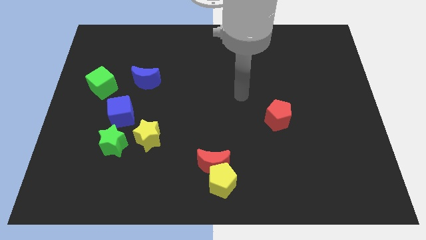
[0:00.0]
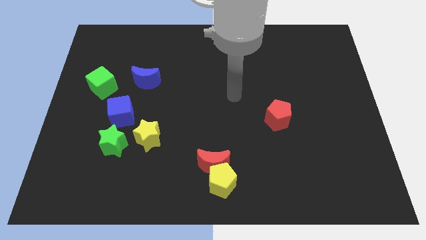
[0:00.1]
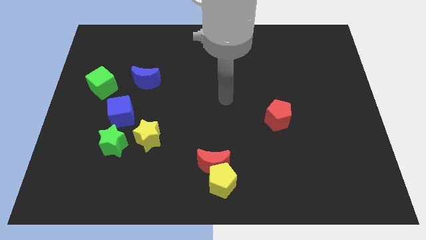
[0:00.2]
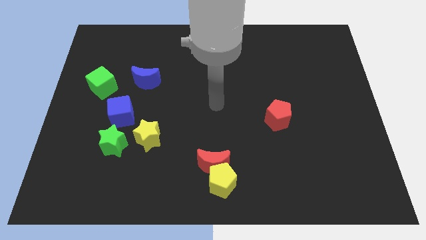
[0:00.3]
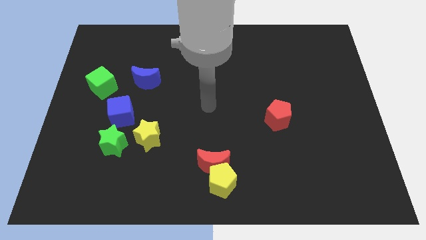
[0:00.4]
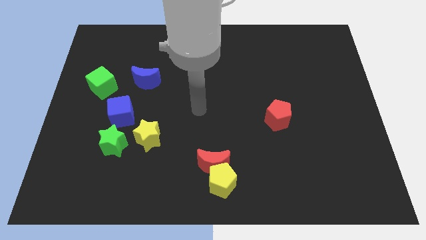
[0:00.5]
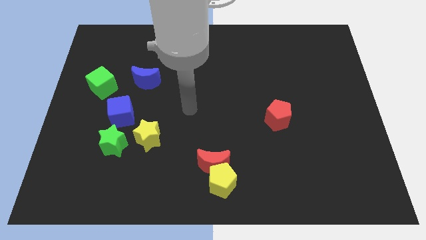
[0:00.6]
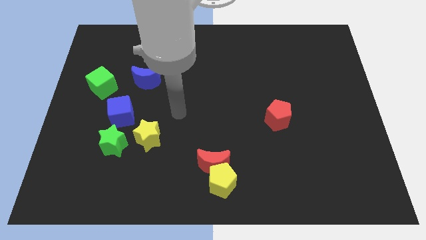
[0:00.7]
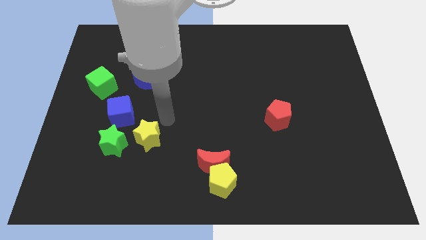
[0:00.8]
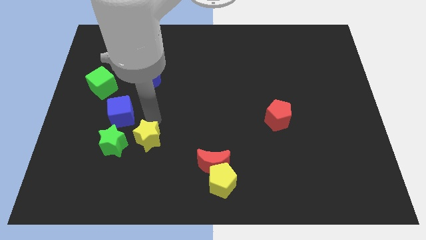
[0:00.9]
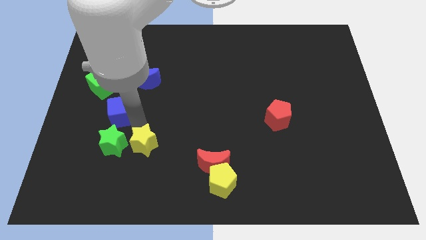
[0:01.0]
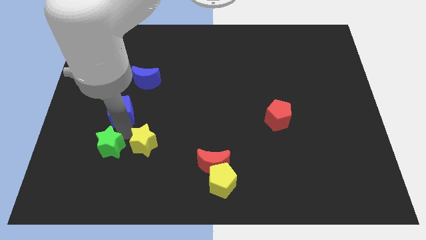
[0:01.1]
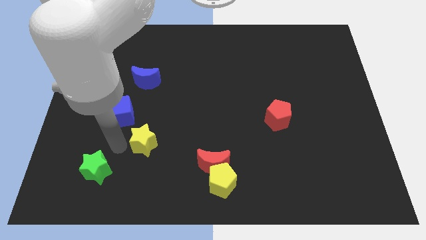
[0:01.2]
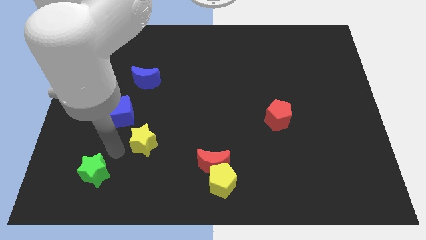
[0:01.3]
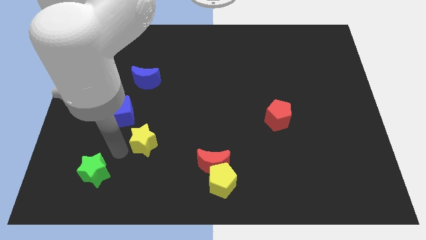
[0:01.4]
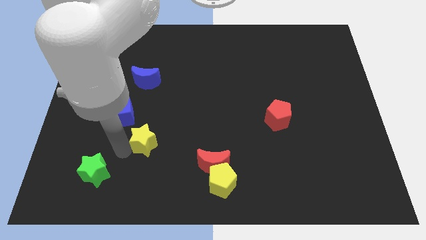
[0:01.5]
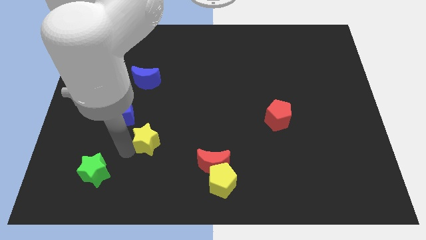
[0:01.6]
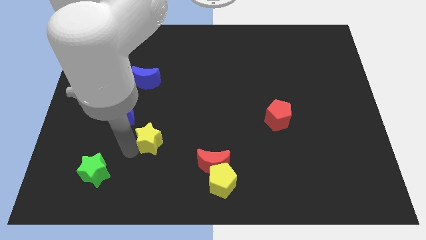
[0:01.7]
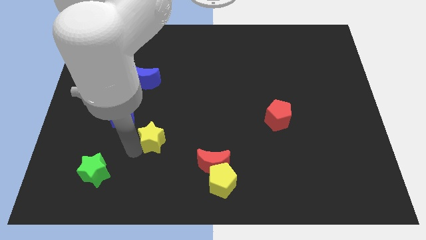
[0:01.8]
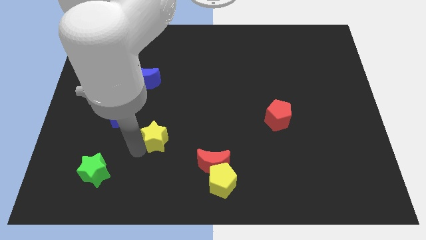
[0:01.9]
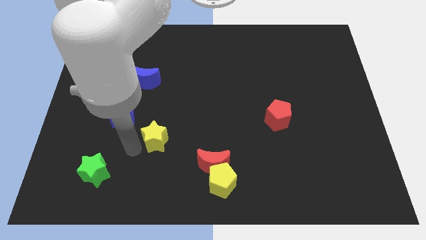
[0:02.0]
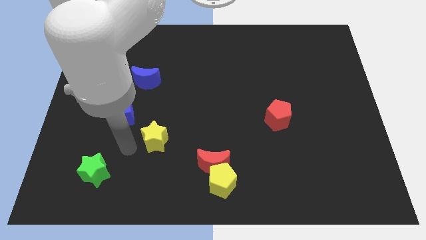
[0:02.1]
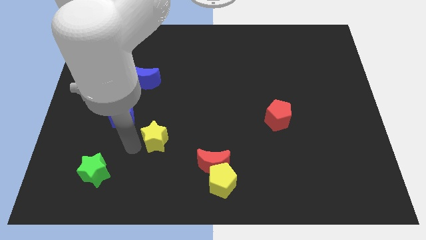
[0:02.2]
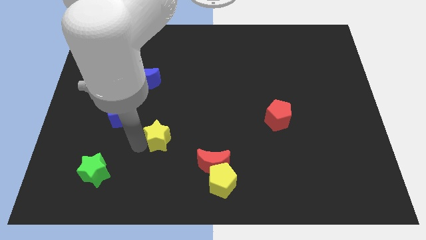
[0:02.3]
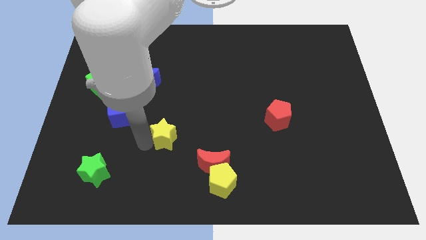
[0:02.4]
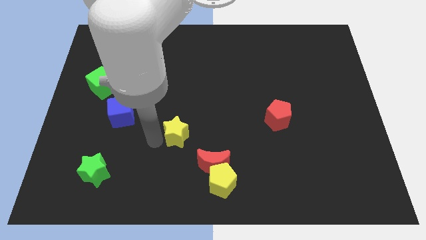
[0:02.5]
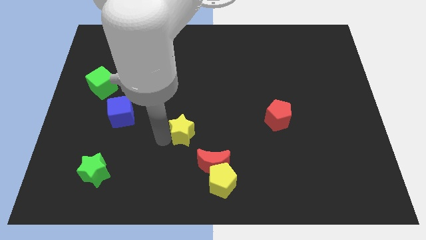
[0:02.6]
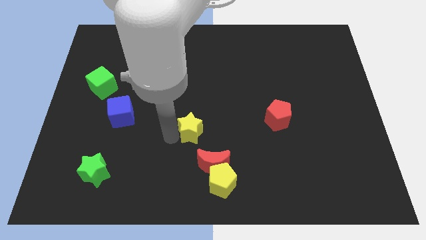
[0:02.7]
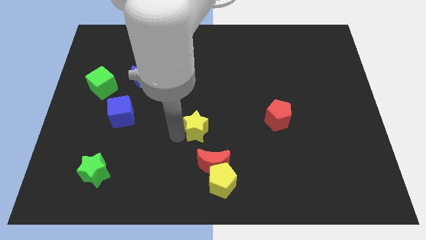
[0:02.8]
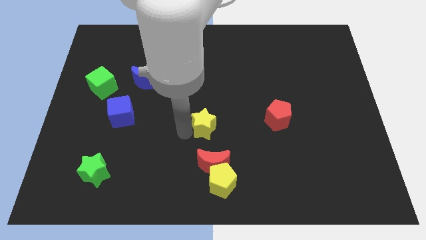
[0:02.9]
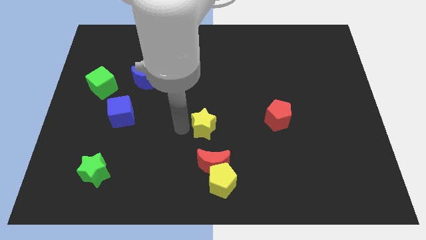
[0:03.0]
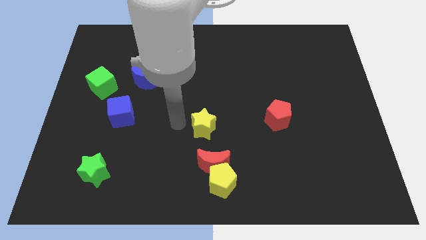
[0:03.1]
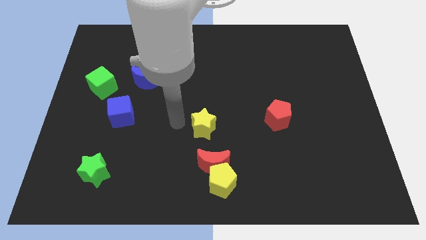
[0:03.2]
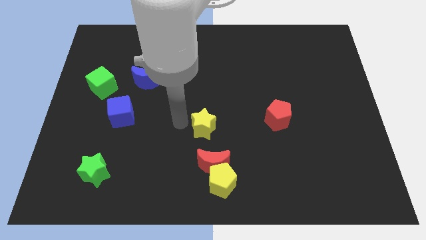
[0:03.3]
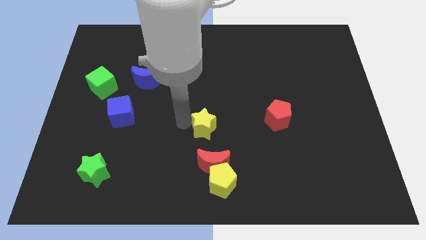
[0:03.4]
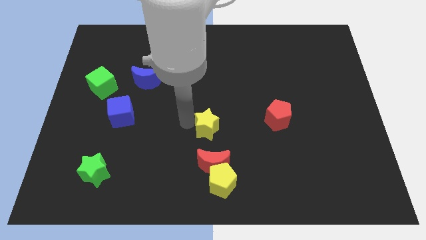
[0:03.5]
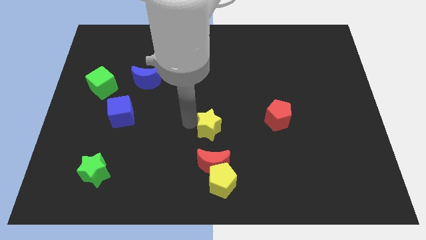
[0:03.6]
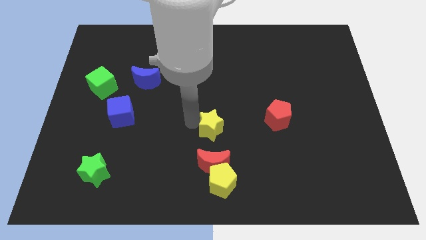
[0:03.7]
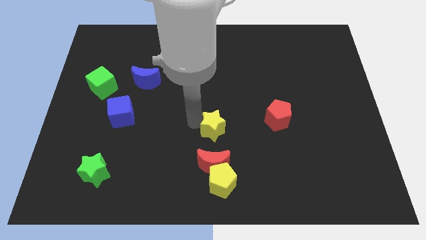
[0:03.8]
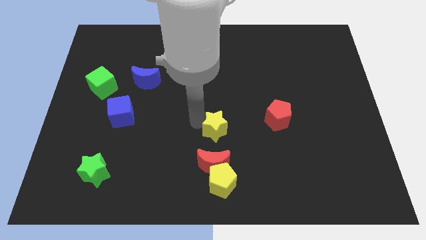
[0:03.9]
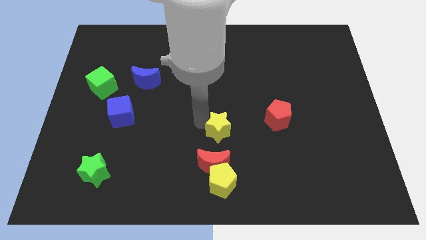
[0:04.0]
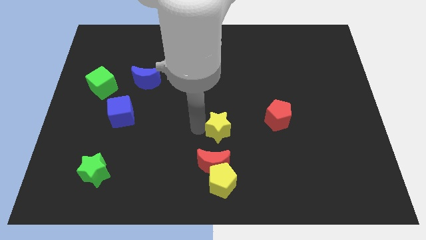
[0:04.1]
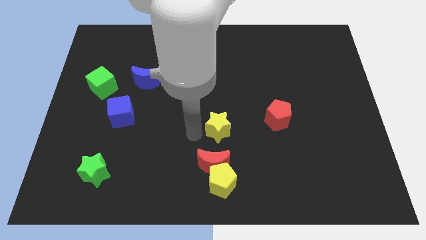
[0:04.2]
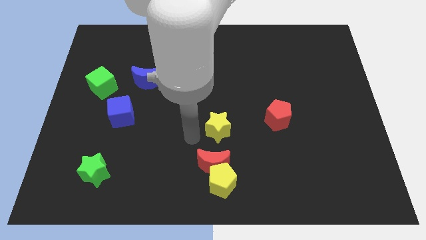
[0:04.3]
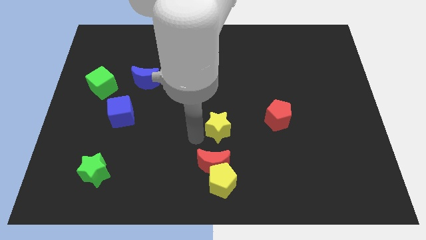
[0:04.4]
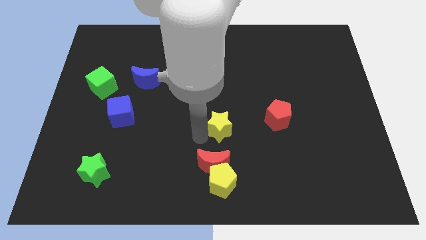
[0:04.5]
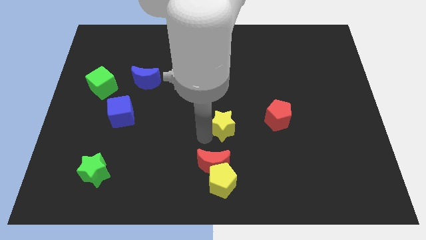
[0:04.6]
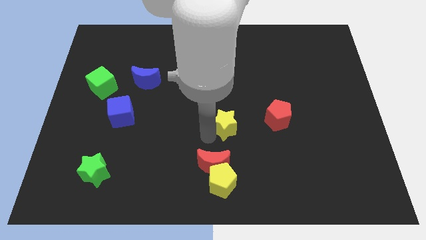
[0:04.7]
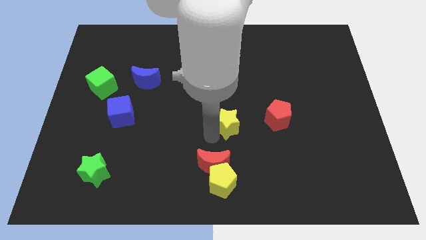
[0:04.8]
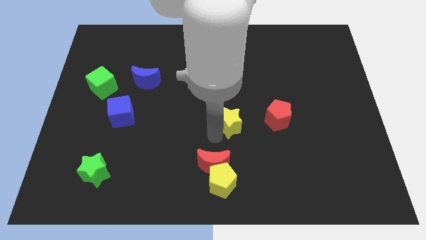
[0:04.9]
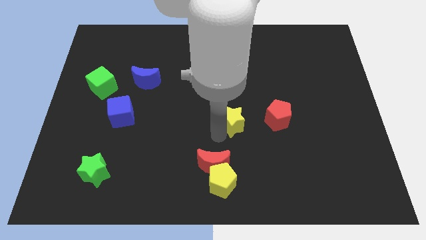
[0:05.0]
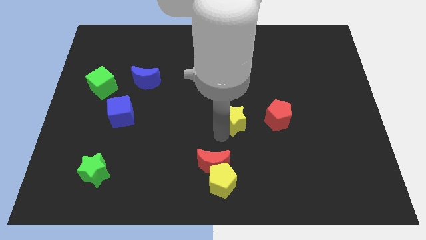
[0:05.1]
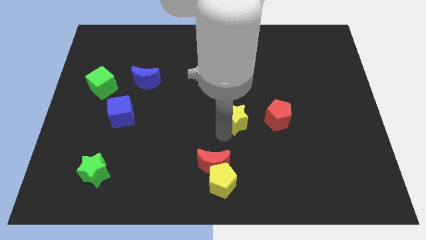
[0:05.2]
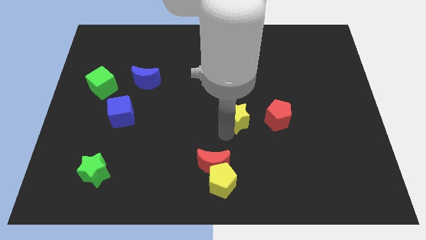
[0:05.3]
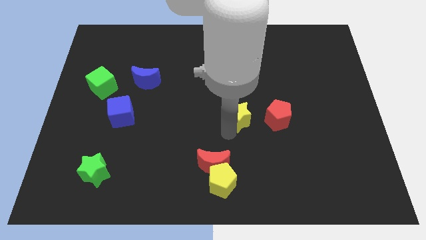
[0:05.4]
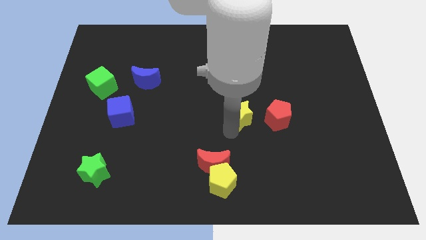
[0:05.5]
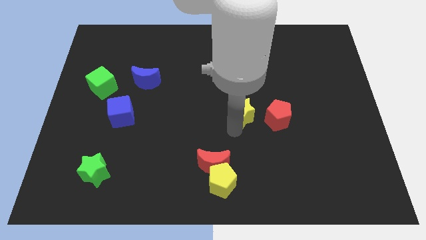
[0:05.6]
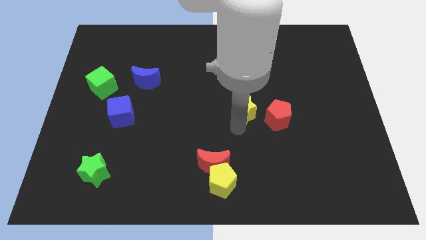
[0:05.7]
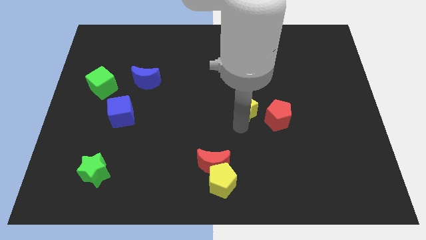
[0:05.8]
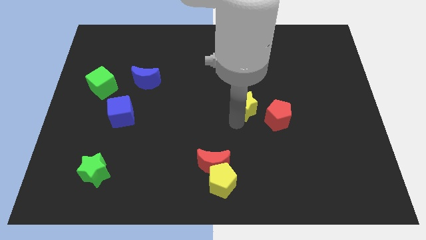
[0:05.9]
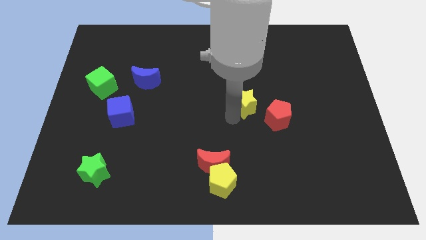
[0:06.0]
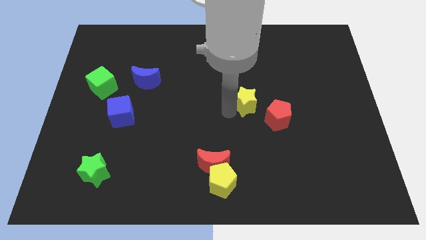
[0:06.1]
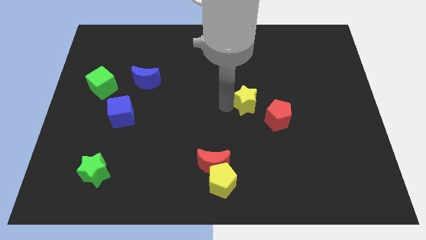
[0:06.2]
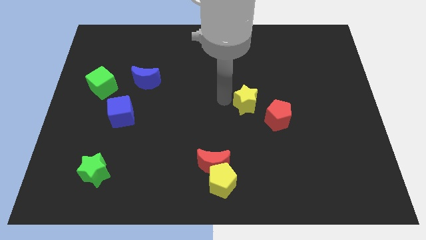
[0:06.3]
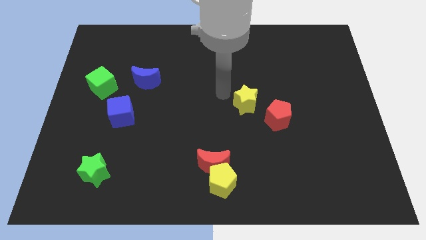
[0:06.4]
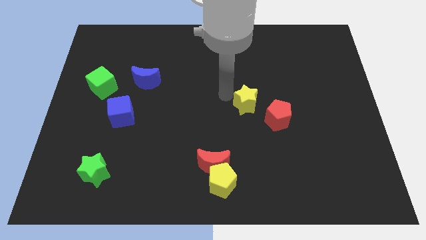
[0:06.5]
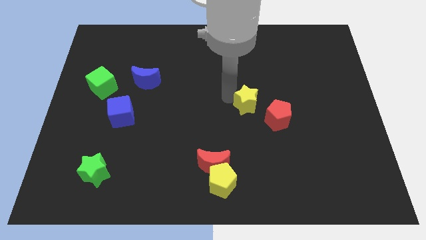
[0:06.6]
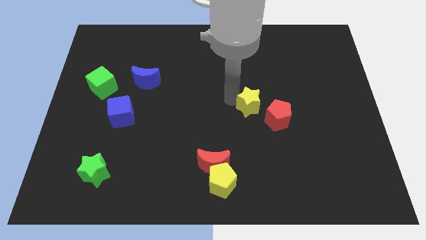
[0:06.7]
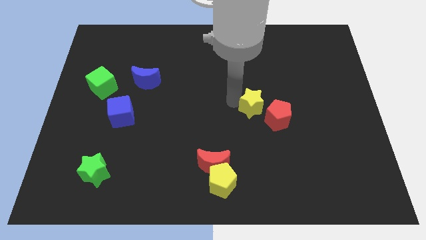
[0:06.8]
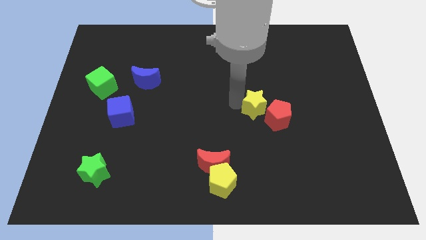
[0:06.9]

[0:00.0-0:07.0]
put the yellow star towards the red pentagon
